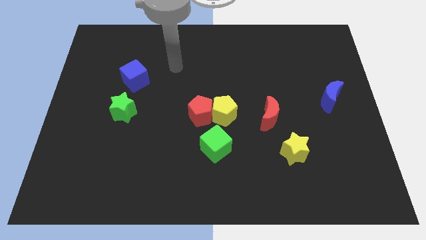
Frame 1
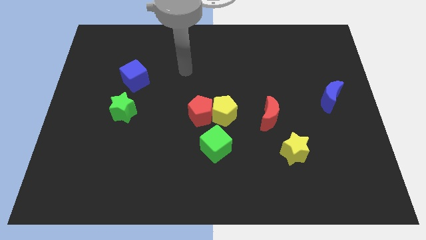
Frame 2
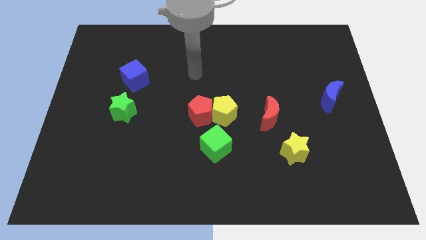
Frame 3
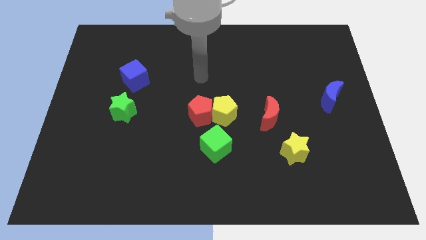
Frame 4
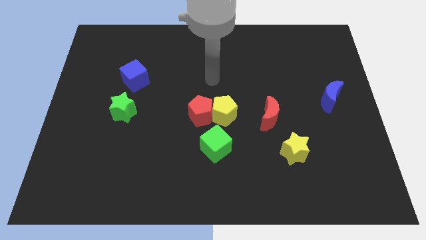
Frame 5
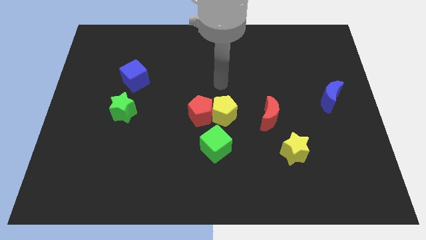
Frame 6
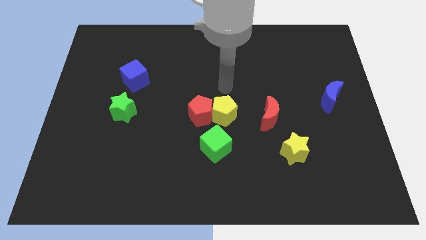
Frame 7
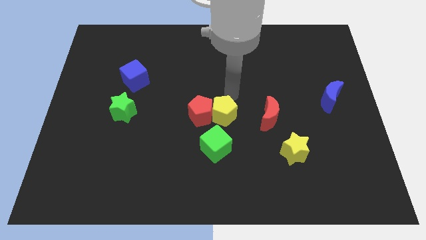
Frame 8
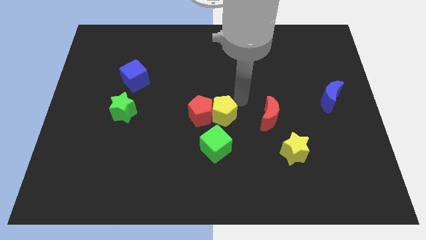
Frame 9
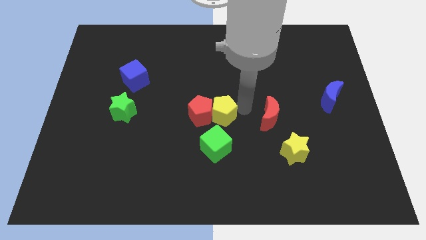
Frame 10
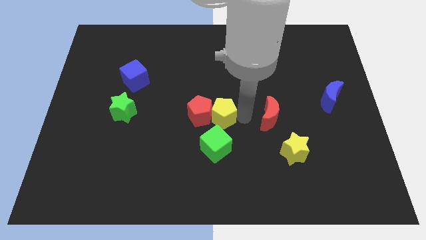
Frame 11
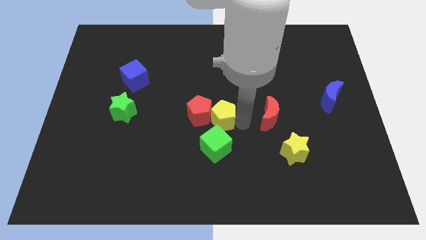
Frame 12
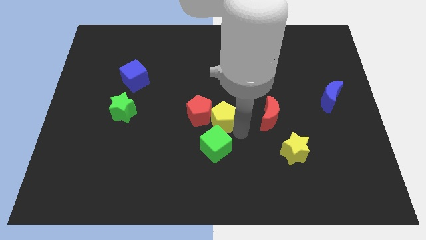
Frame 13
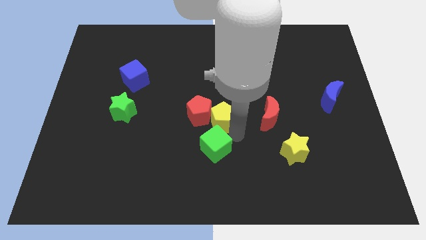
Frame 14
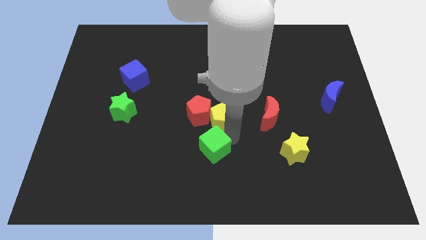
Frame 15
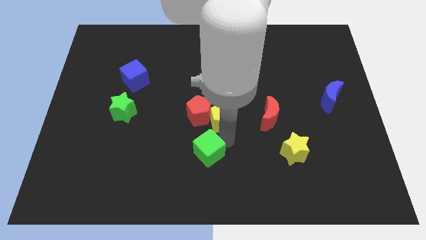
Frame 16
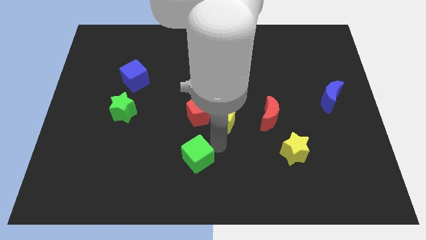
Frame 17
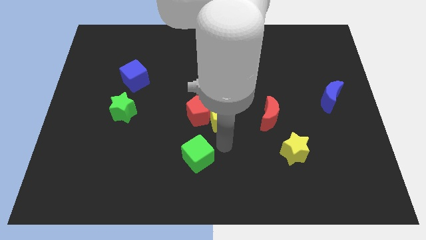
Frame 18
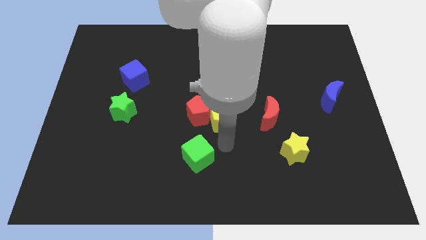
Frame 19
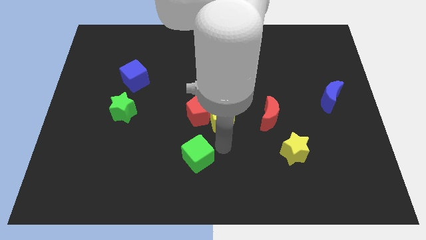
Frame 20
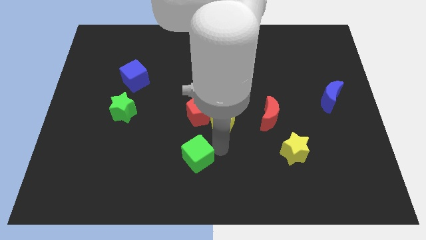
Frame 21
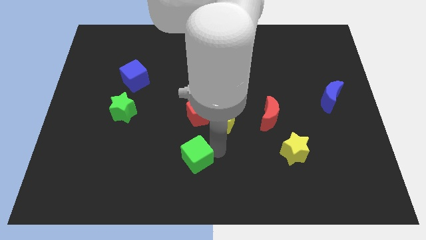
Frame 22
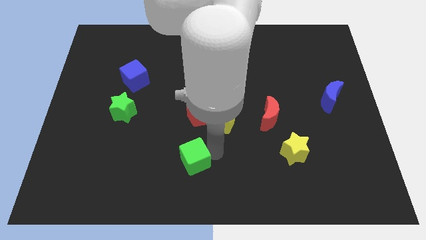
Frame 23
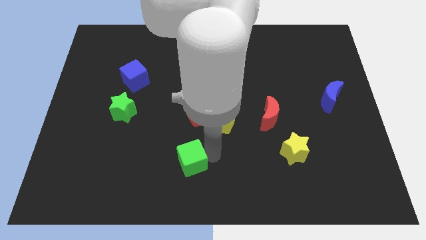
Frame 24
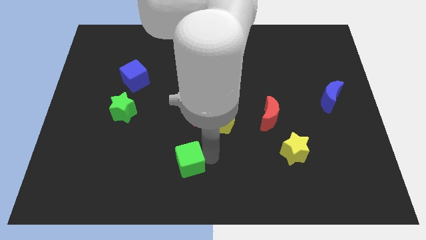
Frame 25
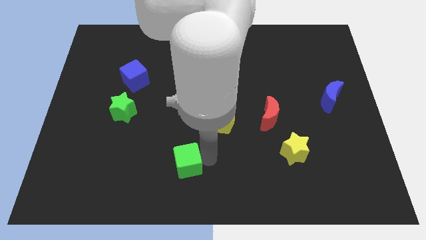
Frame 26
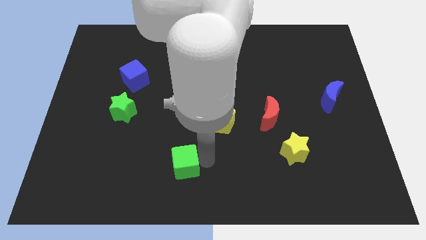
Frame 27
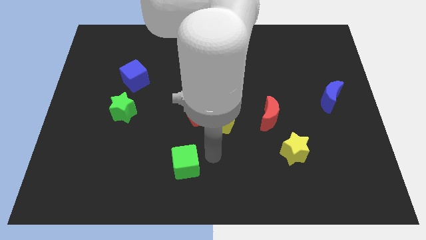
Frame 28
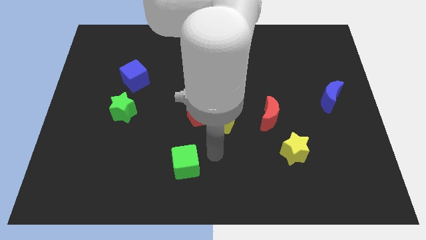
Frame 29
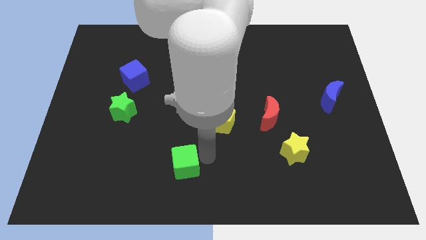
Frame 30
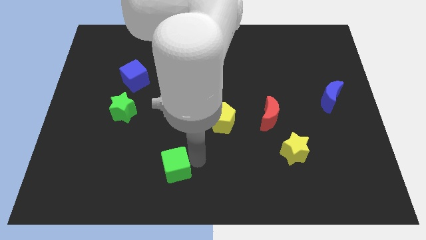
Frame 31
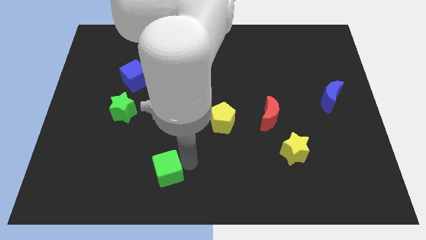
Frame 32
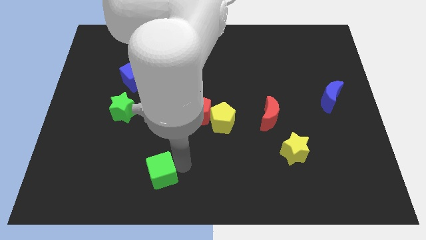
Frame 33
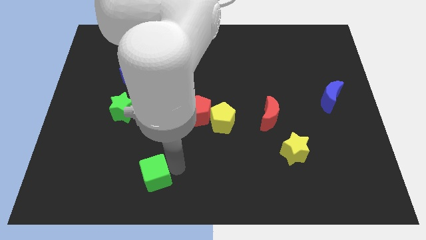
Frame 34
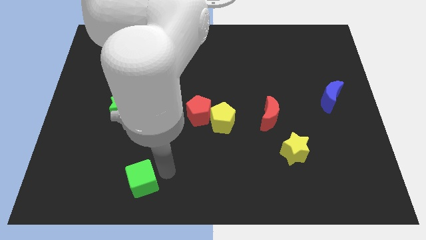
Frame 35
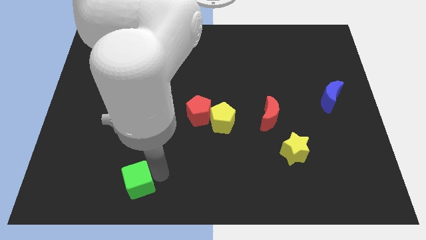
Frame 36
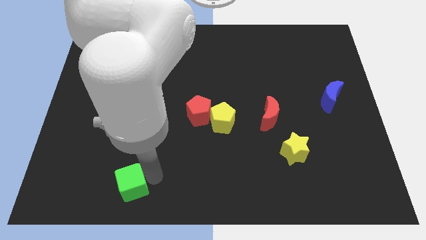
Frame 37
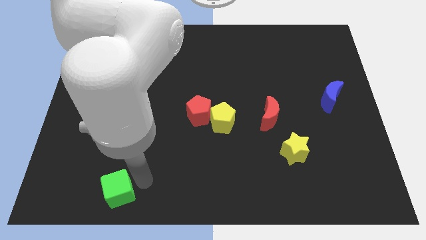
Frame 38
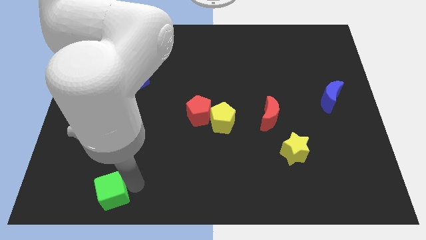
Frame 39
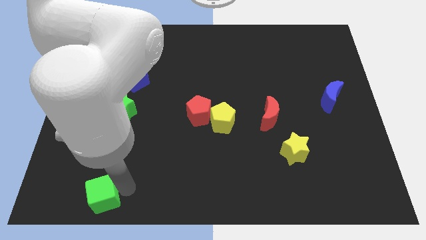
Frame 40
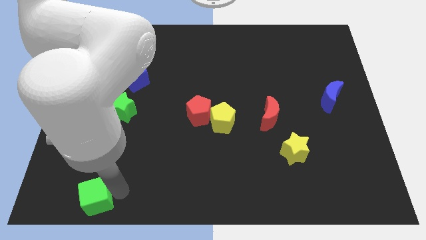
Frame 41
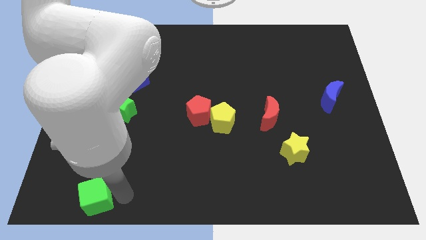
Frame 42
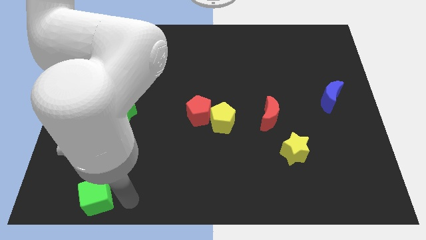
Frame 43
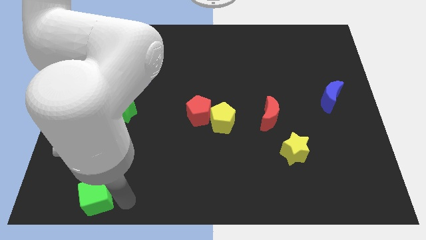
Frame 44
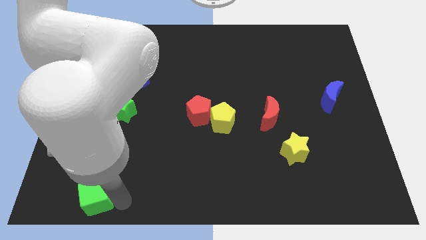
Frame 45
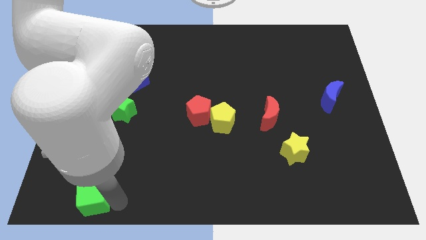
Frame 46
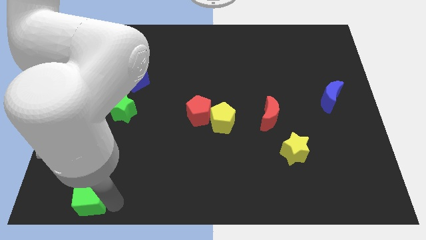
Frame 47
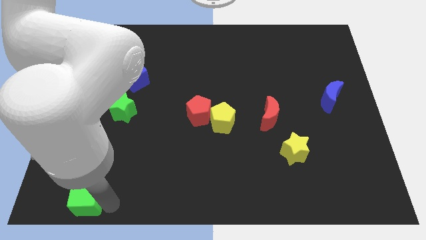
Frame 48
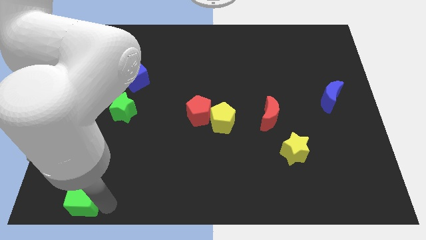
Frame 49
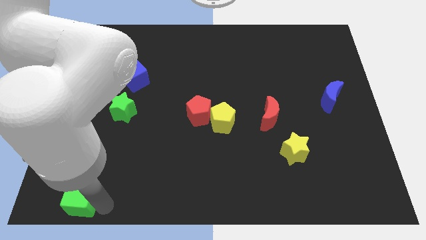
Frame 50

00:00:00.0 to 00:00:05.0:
put the green cube to the bottom left of the board

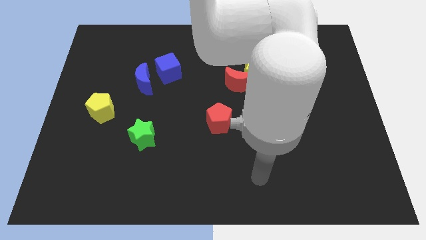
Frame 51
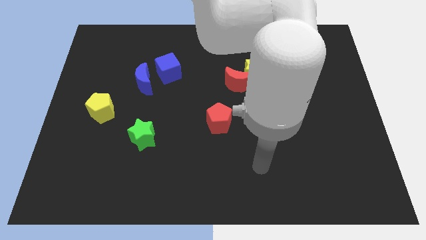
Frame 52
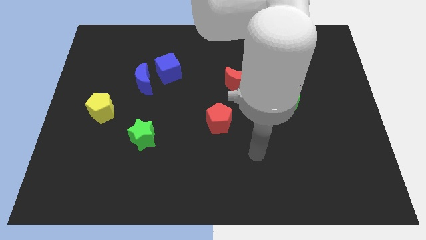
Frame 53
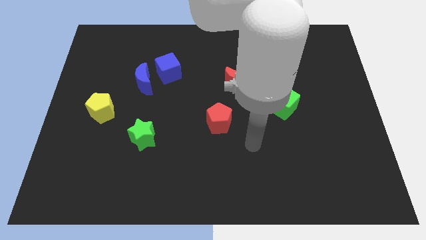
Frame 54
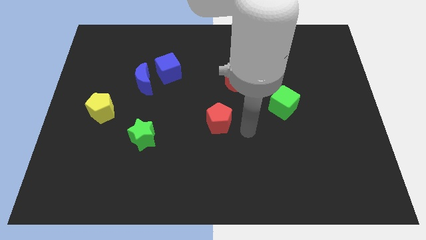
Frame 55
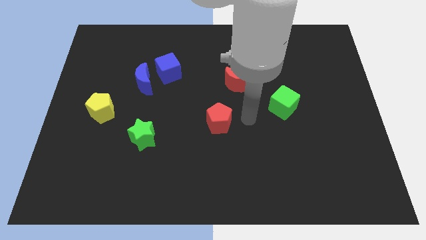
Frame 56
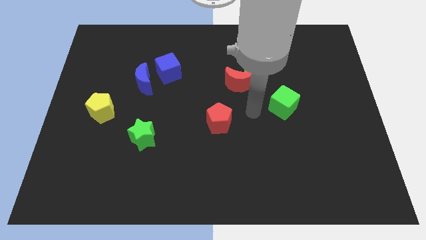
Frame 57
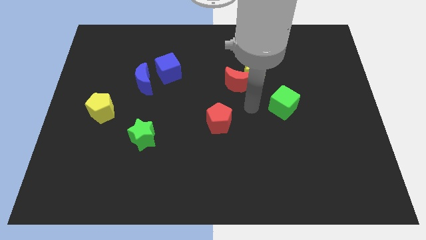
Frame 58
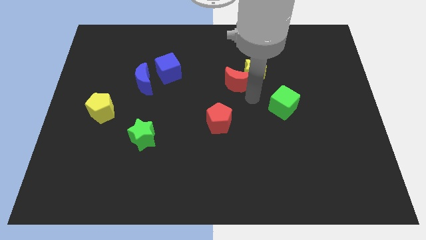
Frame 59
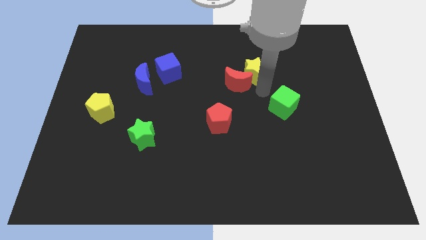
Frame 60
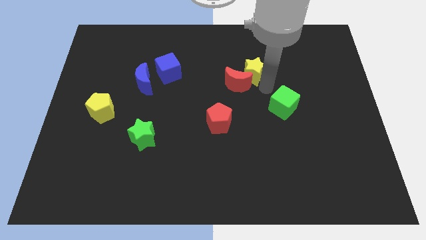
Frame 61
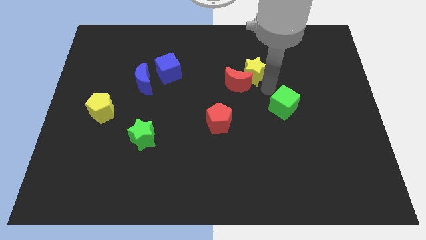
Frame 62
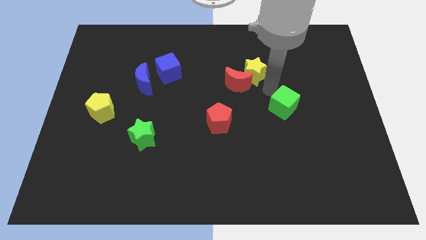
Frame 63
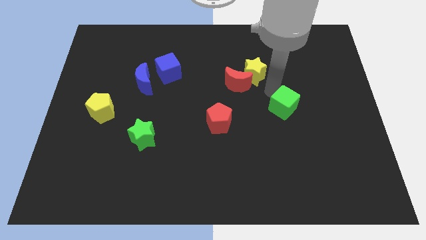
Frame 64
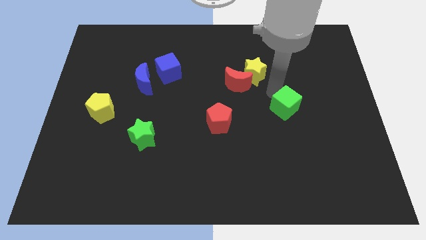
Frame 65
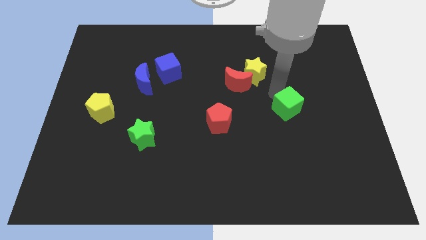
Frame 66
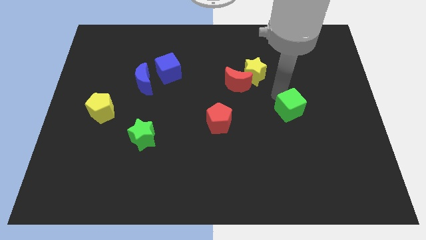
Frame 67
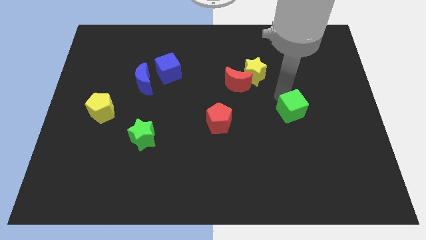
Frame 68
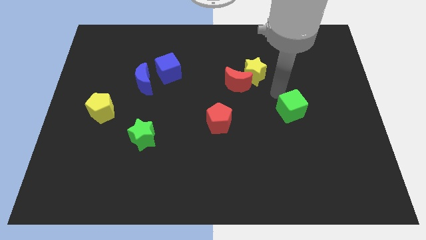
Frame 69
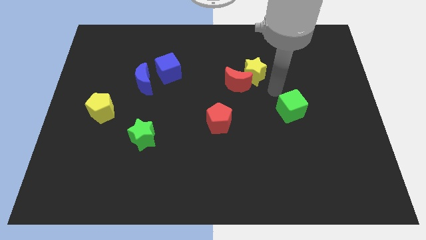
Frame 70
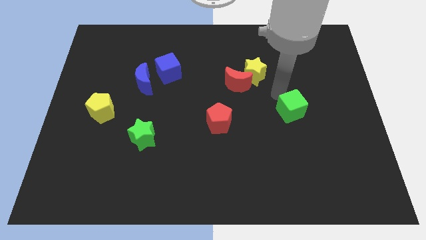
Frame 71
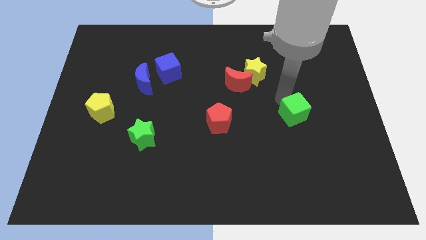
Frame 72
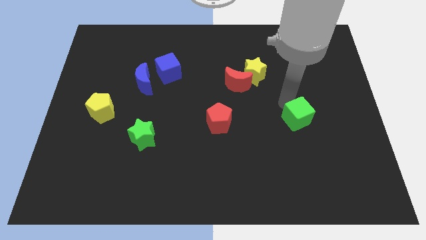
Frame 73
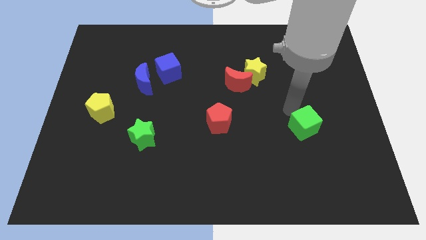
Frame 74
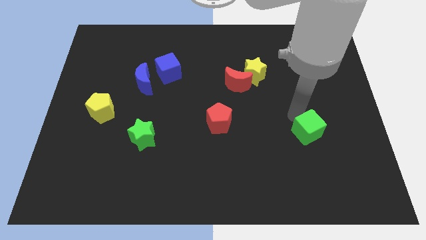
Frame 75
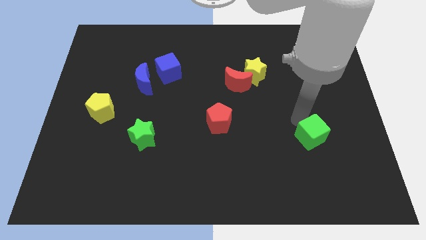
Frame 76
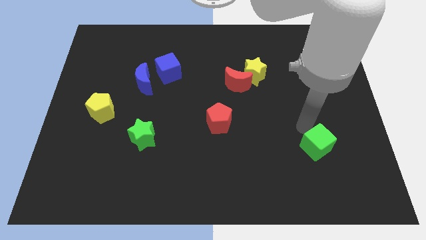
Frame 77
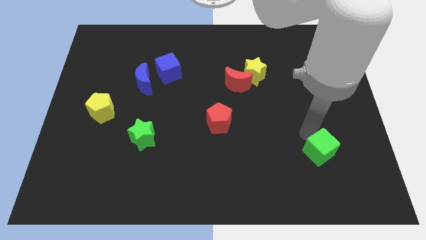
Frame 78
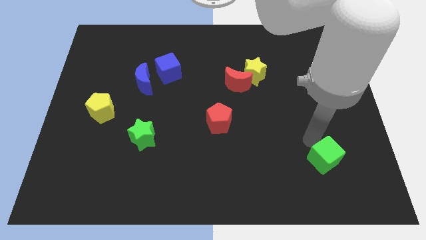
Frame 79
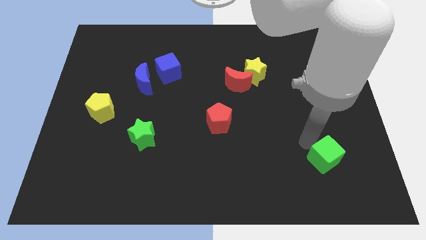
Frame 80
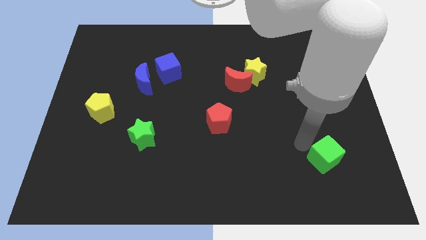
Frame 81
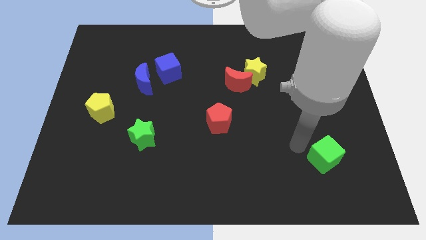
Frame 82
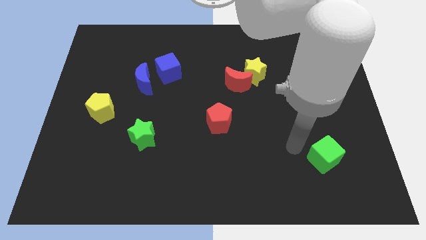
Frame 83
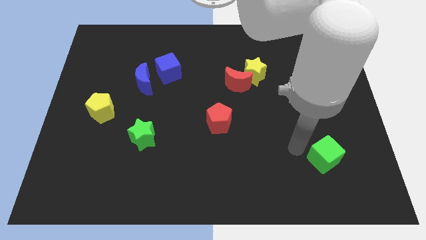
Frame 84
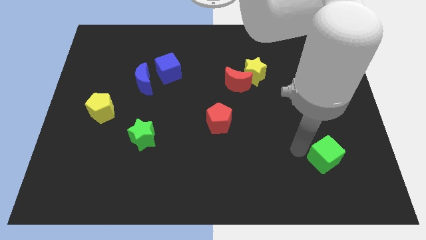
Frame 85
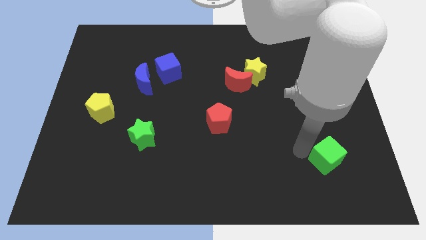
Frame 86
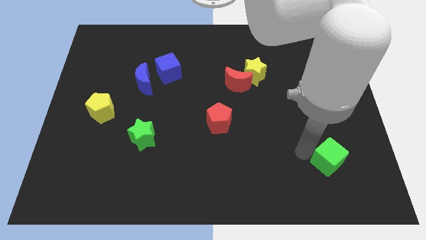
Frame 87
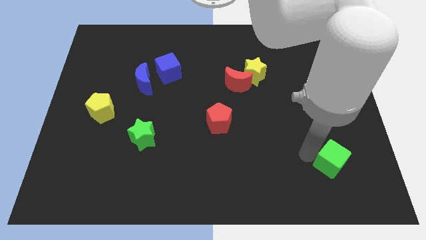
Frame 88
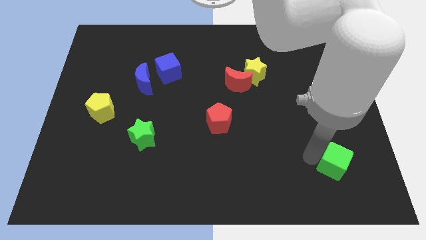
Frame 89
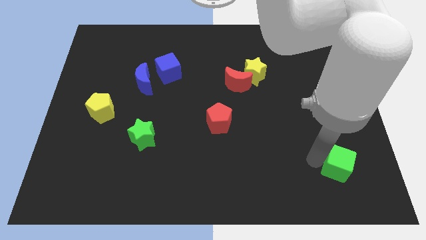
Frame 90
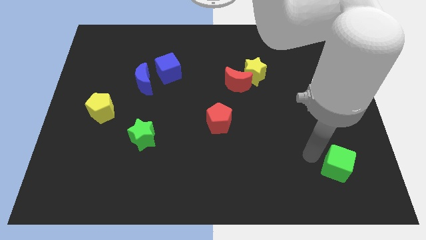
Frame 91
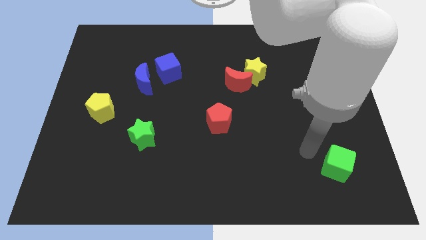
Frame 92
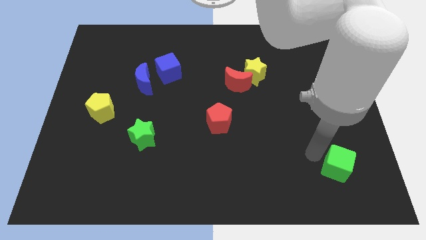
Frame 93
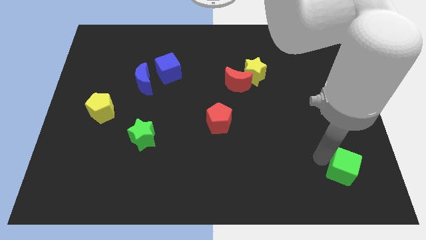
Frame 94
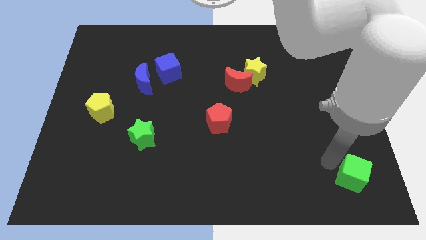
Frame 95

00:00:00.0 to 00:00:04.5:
put the green cube to the bottom right of the board
